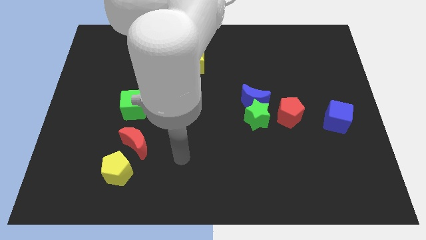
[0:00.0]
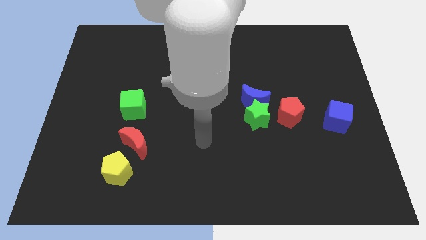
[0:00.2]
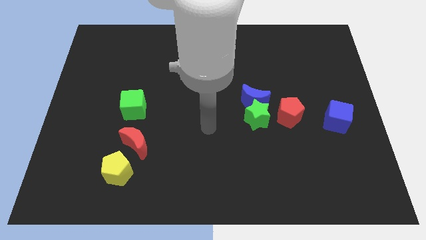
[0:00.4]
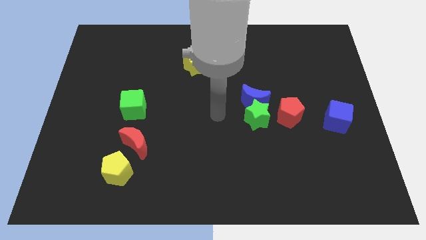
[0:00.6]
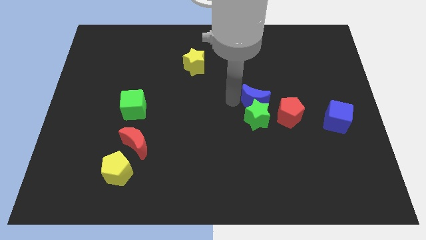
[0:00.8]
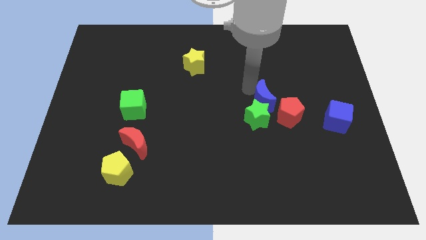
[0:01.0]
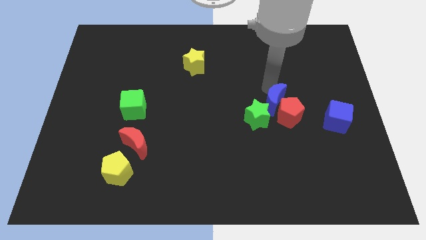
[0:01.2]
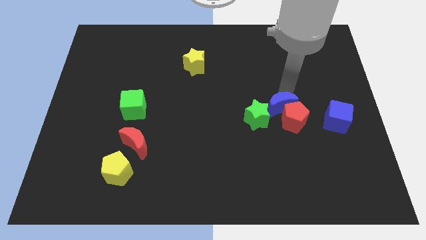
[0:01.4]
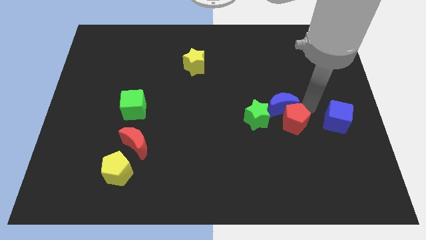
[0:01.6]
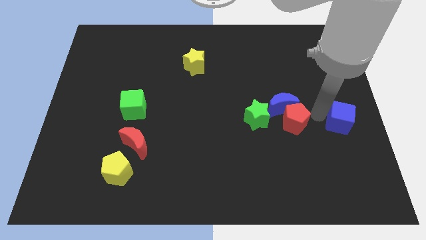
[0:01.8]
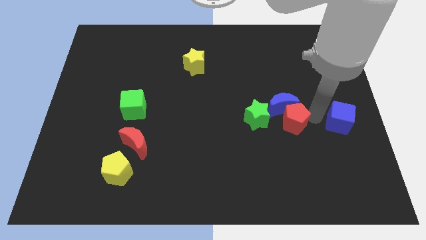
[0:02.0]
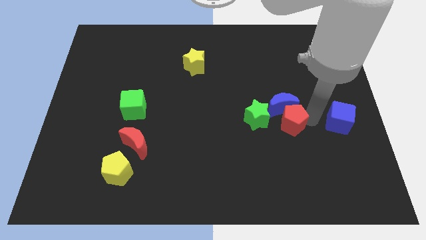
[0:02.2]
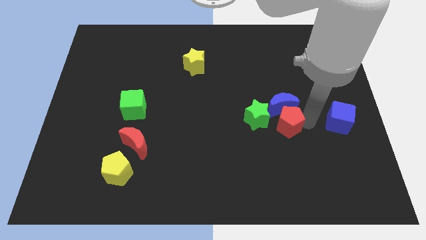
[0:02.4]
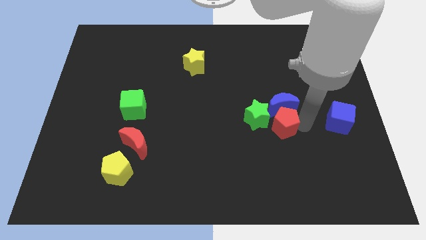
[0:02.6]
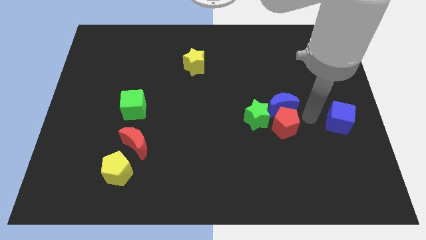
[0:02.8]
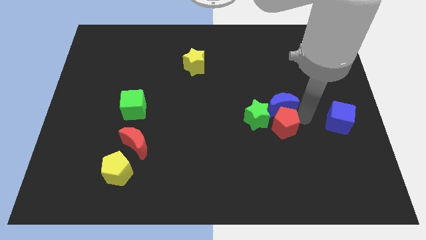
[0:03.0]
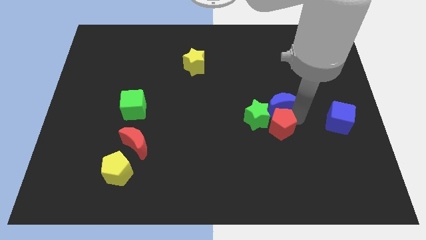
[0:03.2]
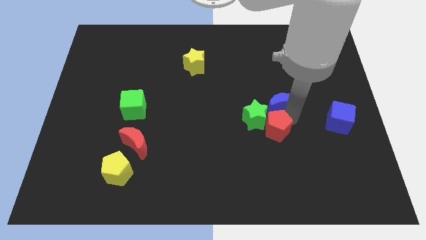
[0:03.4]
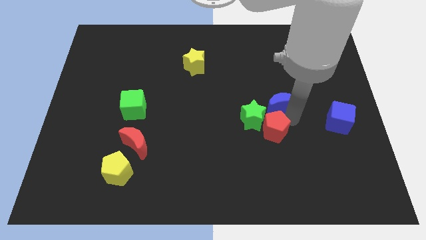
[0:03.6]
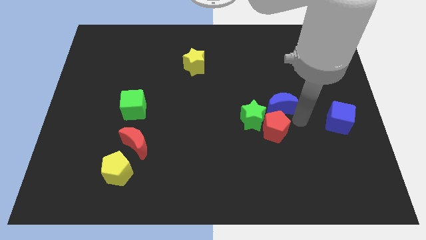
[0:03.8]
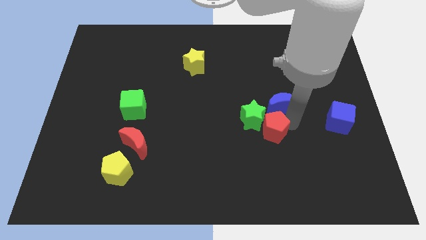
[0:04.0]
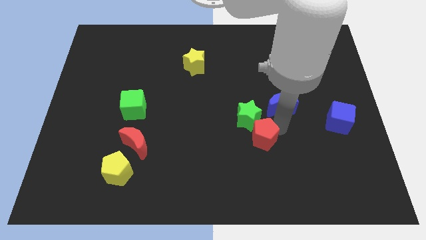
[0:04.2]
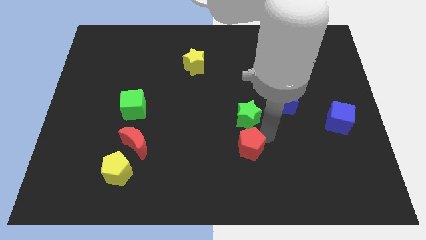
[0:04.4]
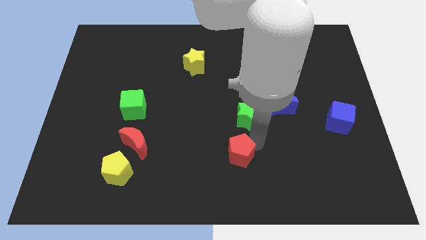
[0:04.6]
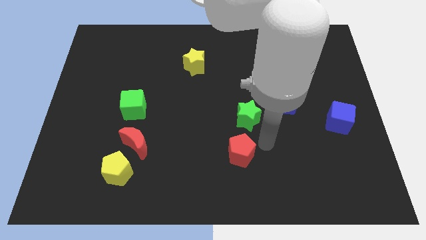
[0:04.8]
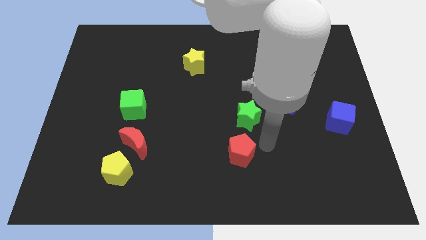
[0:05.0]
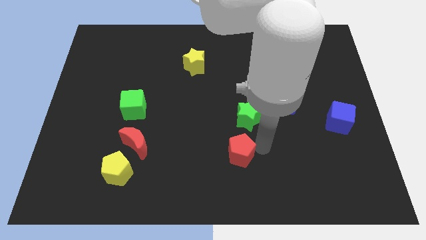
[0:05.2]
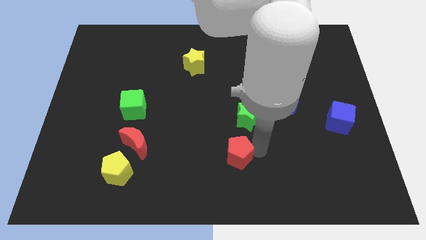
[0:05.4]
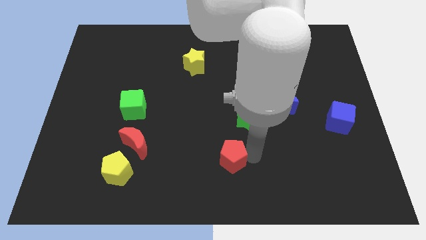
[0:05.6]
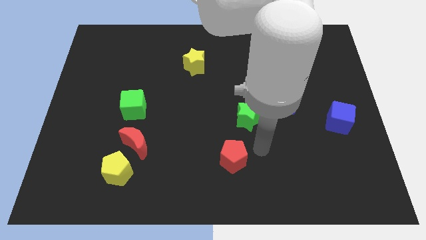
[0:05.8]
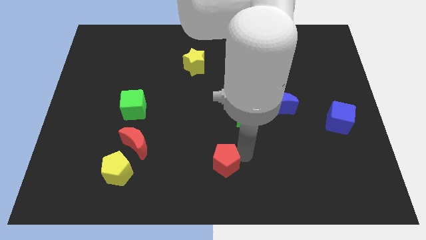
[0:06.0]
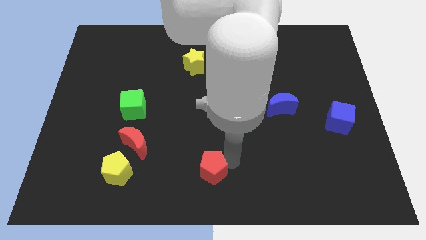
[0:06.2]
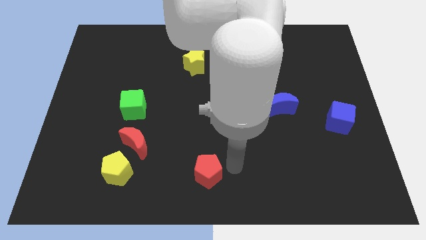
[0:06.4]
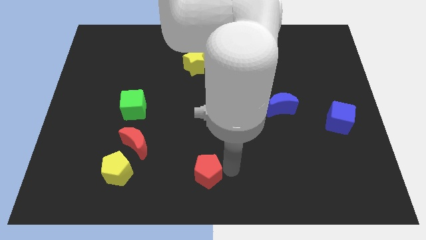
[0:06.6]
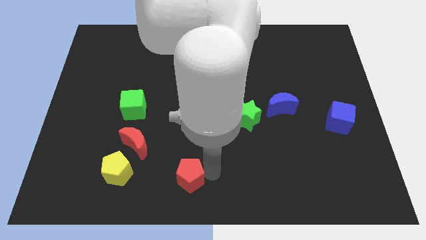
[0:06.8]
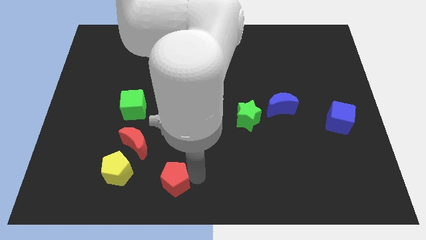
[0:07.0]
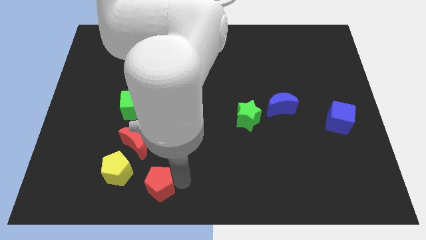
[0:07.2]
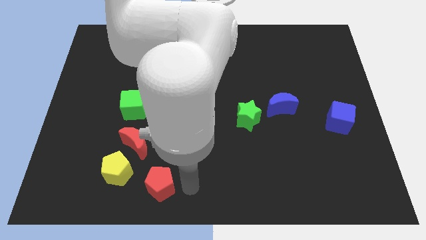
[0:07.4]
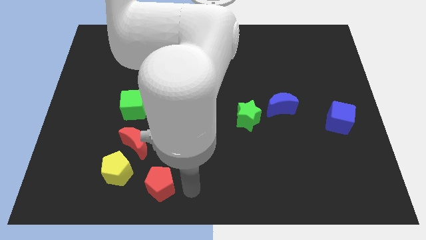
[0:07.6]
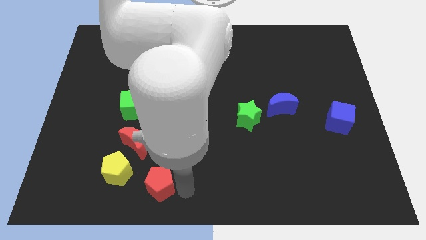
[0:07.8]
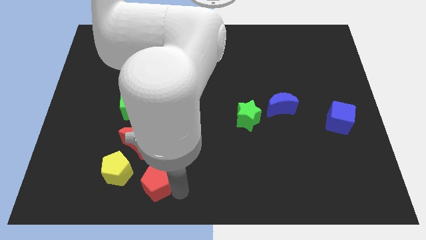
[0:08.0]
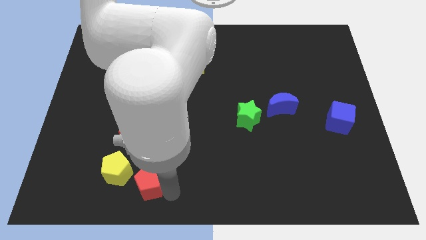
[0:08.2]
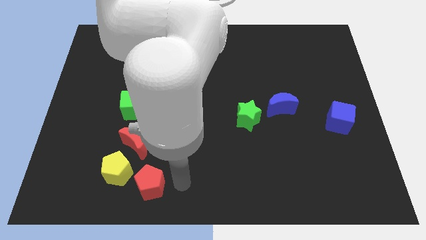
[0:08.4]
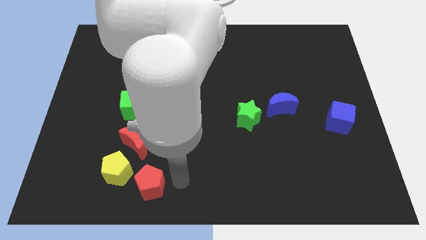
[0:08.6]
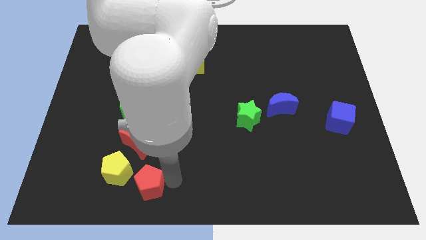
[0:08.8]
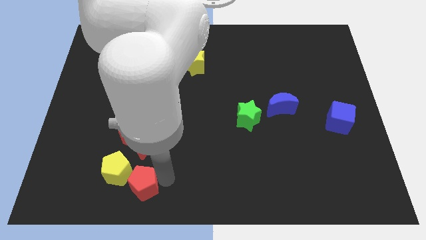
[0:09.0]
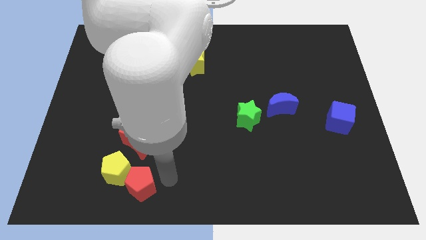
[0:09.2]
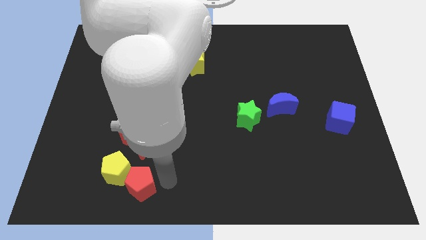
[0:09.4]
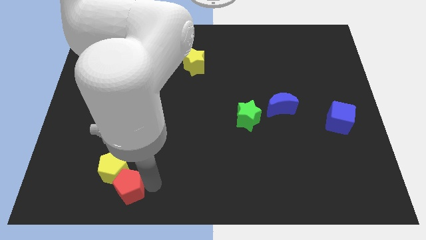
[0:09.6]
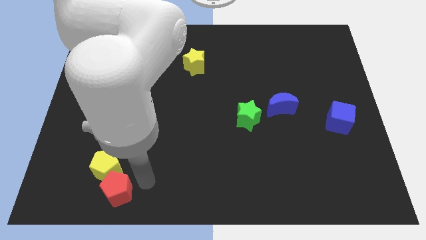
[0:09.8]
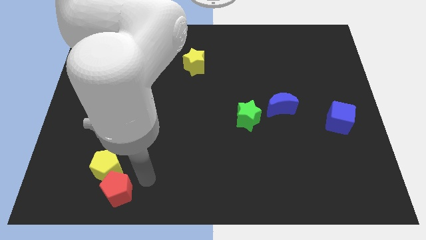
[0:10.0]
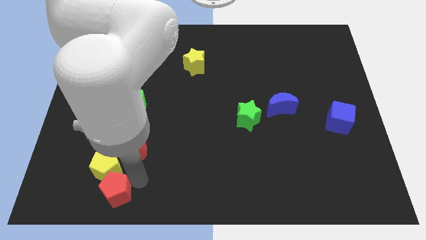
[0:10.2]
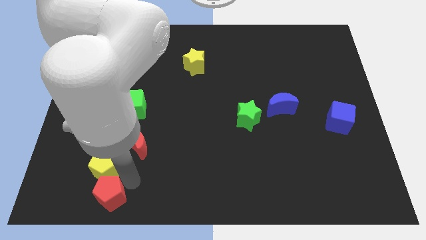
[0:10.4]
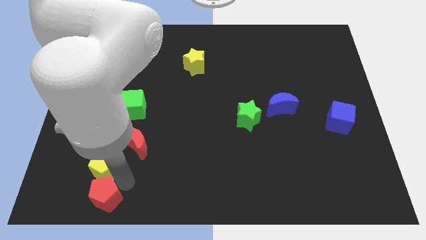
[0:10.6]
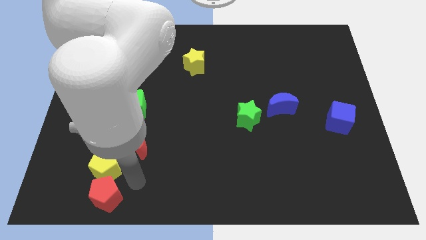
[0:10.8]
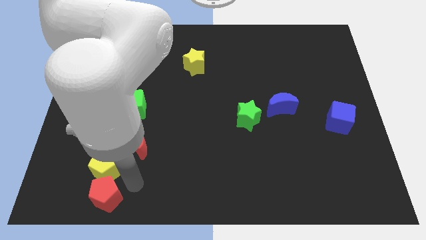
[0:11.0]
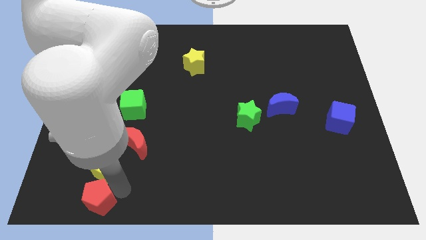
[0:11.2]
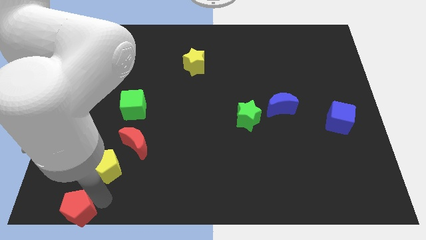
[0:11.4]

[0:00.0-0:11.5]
move the red pentagon to the bottom left

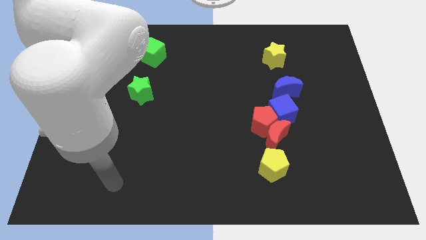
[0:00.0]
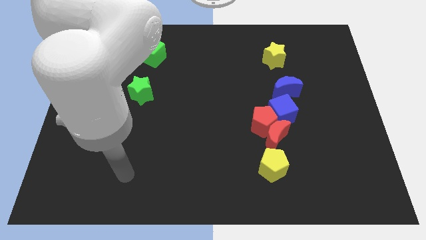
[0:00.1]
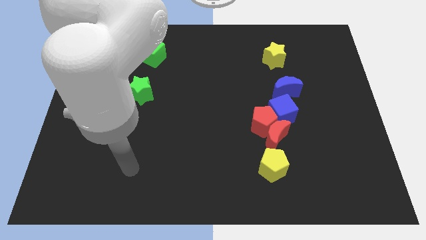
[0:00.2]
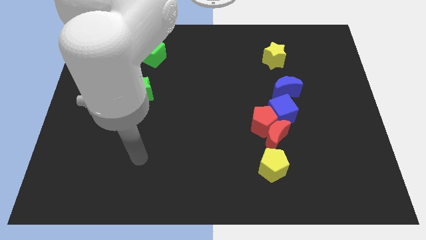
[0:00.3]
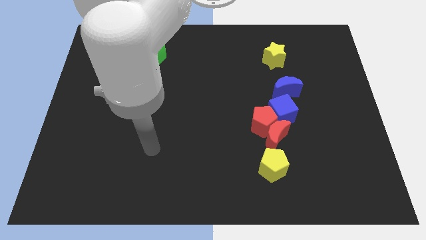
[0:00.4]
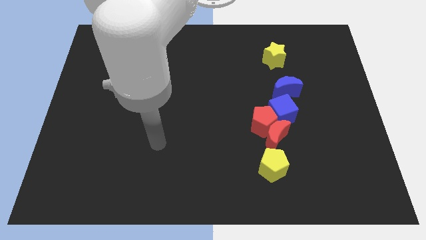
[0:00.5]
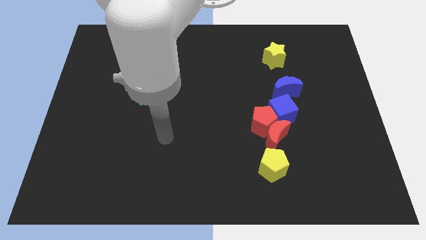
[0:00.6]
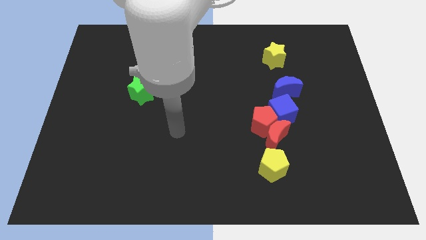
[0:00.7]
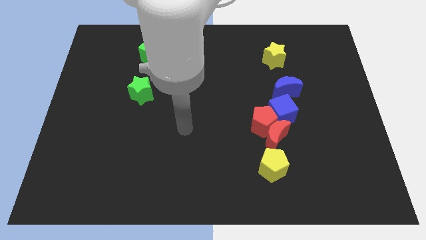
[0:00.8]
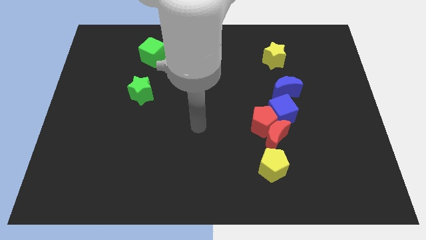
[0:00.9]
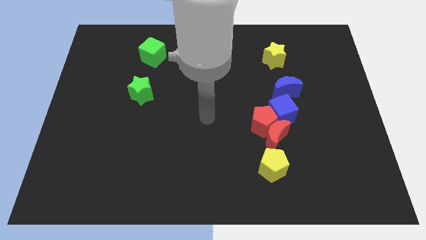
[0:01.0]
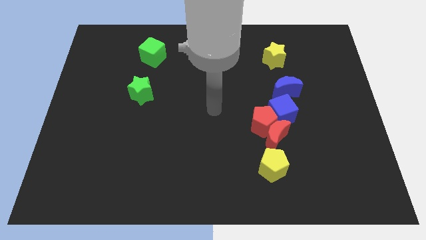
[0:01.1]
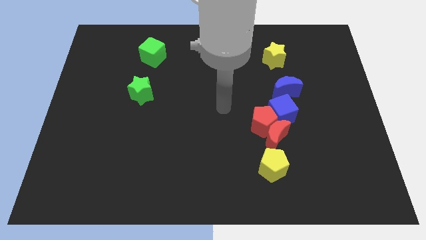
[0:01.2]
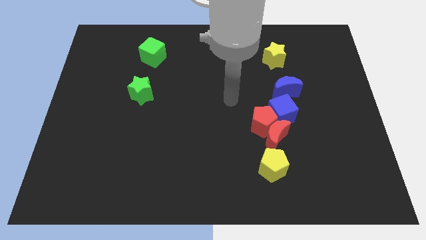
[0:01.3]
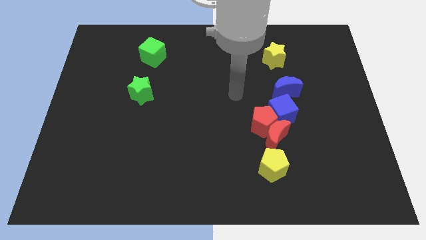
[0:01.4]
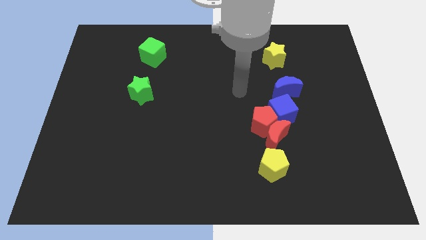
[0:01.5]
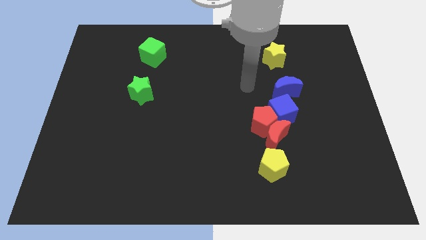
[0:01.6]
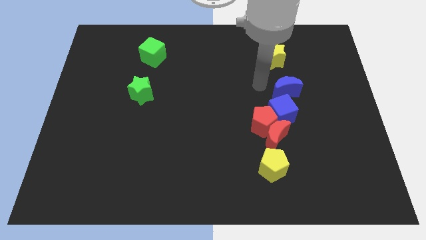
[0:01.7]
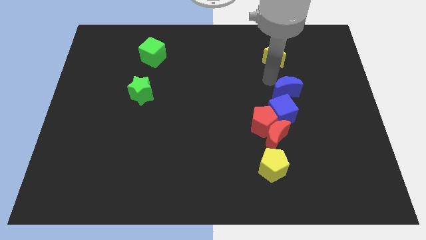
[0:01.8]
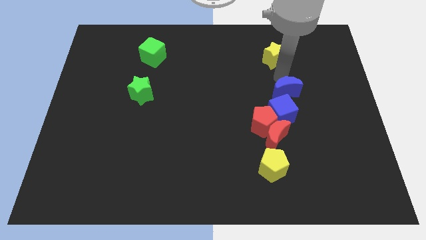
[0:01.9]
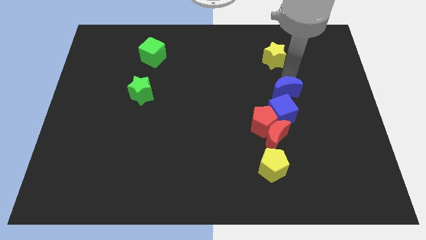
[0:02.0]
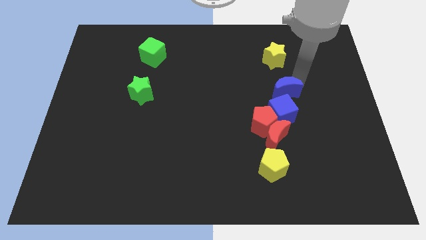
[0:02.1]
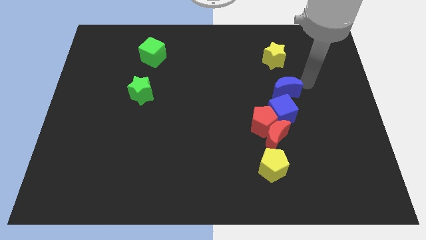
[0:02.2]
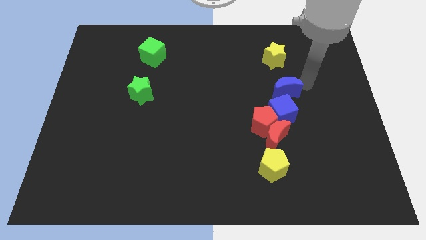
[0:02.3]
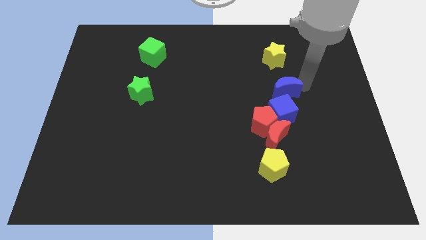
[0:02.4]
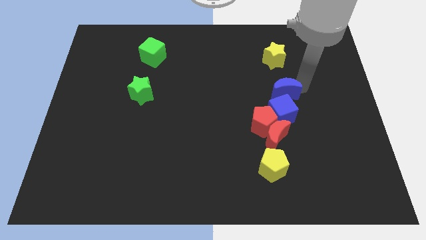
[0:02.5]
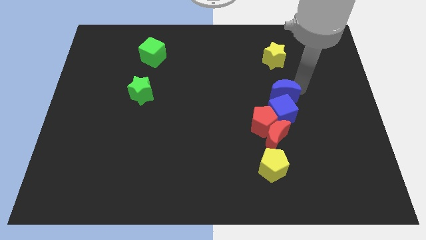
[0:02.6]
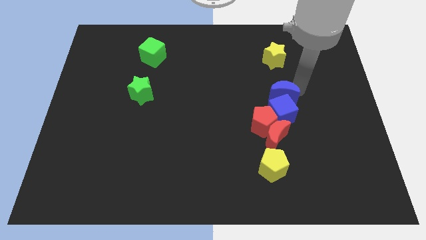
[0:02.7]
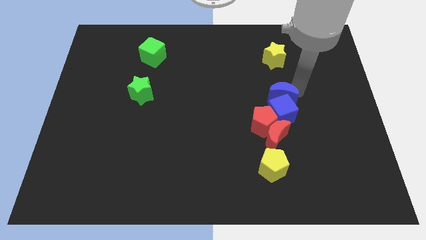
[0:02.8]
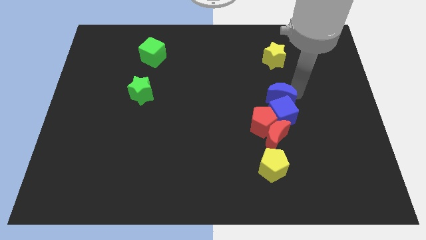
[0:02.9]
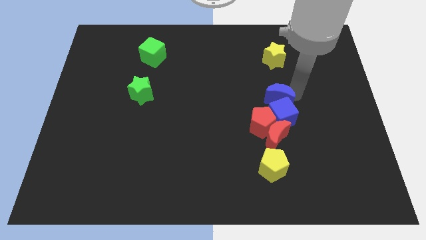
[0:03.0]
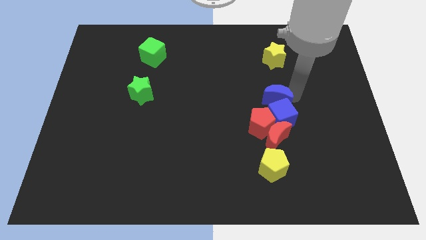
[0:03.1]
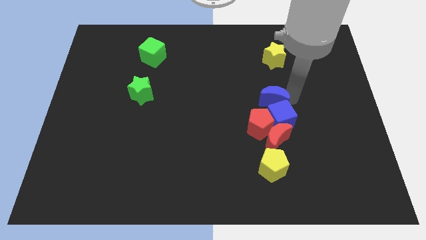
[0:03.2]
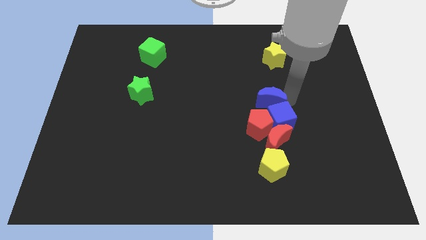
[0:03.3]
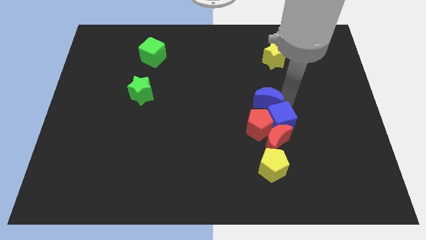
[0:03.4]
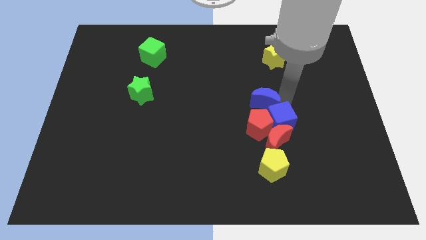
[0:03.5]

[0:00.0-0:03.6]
push the blue moon to the center
